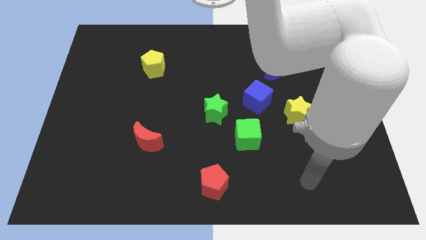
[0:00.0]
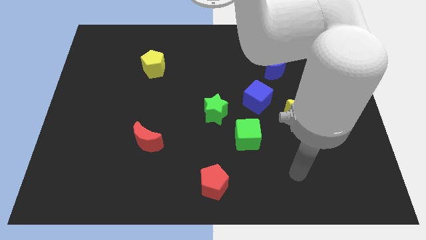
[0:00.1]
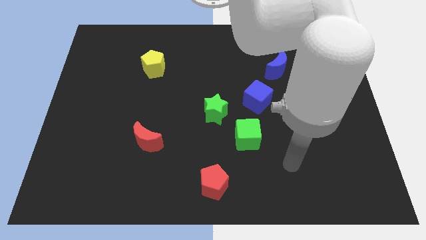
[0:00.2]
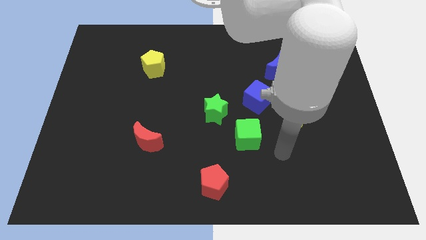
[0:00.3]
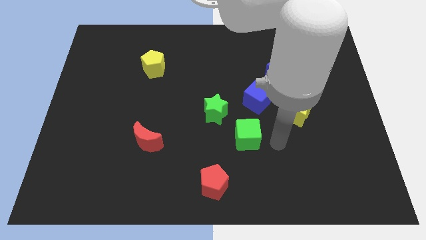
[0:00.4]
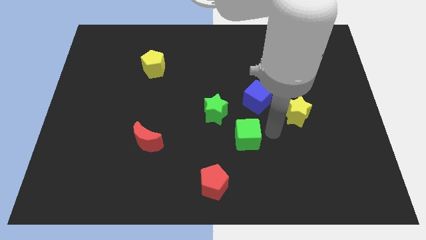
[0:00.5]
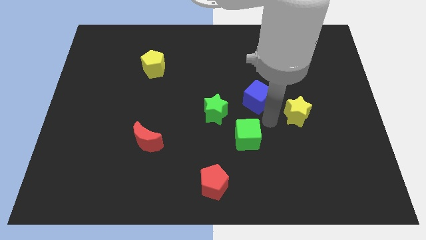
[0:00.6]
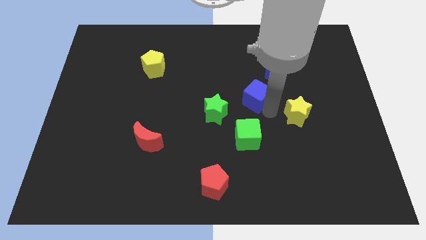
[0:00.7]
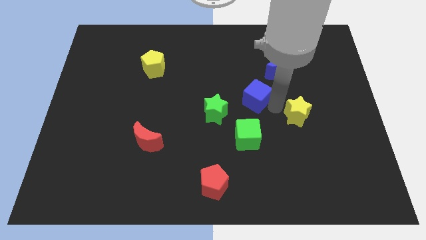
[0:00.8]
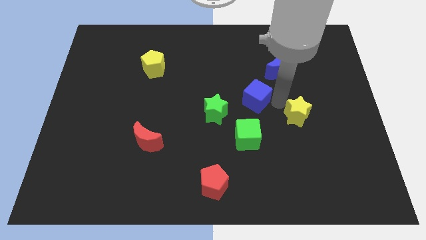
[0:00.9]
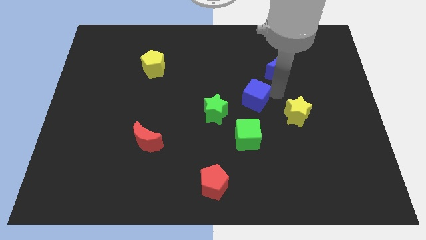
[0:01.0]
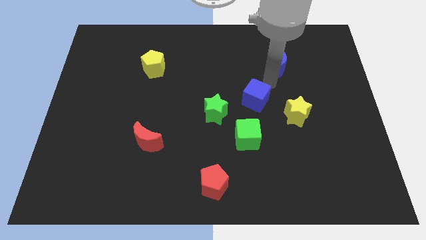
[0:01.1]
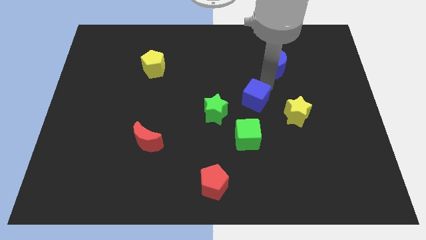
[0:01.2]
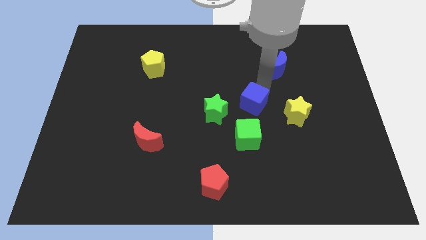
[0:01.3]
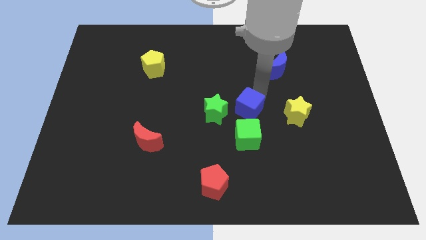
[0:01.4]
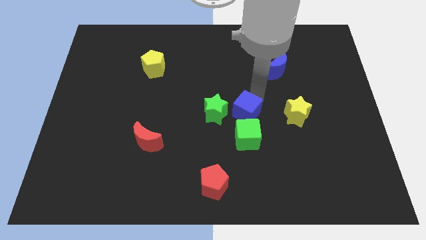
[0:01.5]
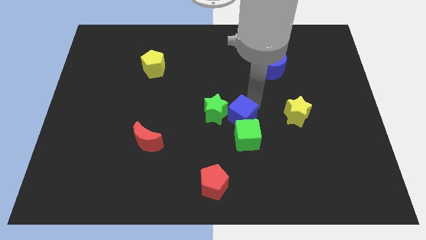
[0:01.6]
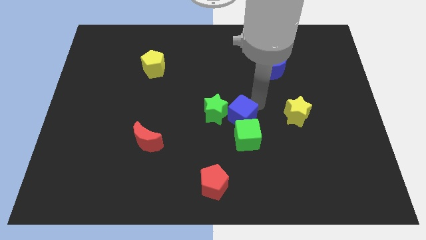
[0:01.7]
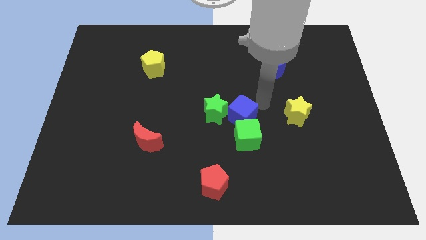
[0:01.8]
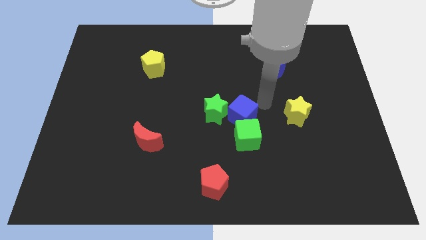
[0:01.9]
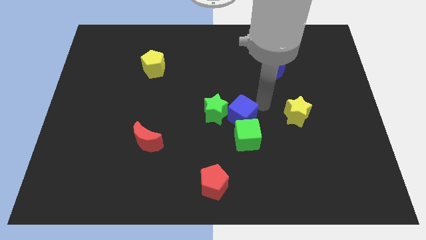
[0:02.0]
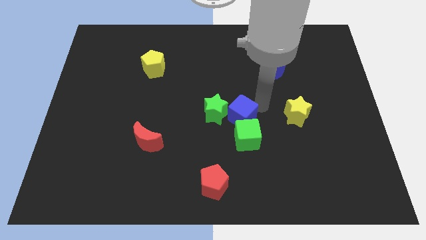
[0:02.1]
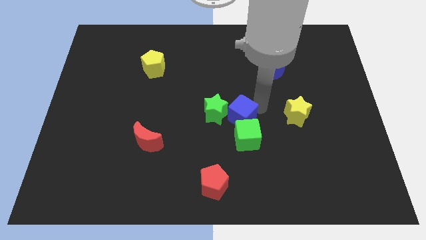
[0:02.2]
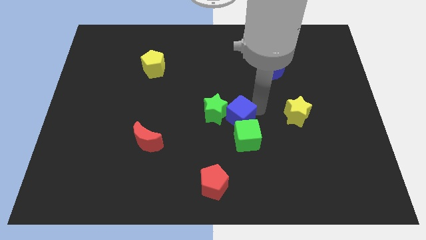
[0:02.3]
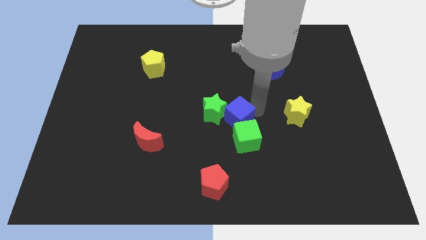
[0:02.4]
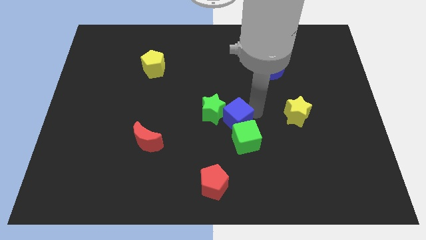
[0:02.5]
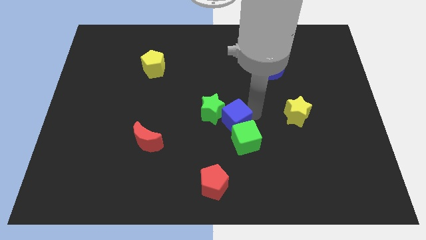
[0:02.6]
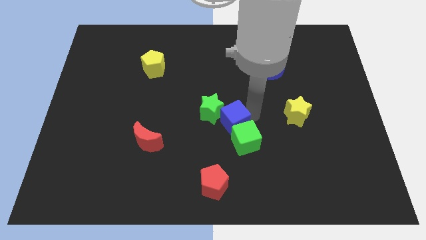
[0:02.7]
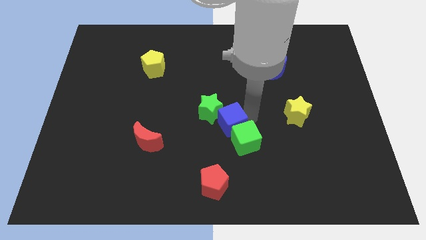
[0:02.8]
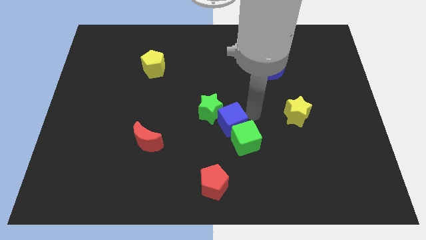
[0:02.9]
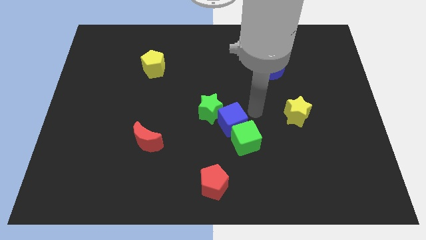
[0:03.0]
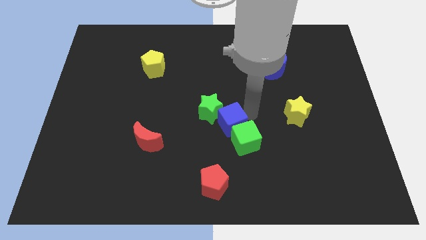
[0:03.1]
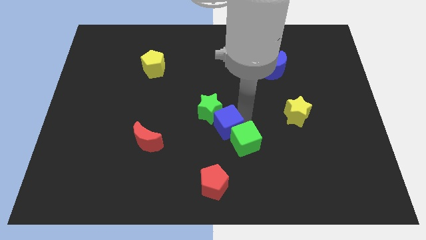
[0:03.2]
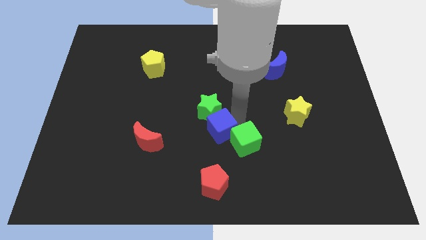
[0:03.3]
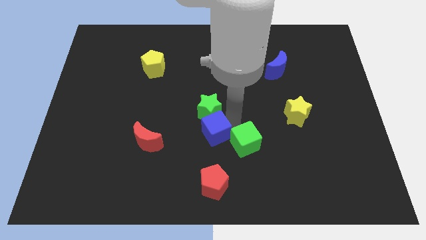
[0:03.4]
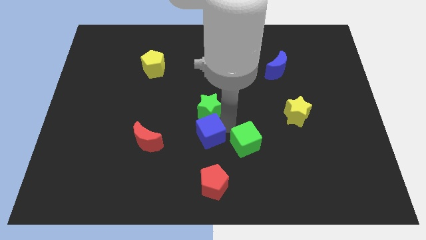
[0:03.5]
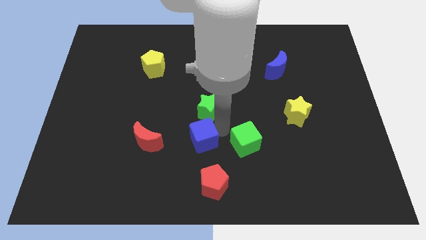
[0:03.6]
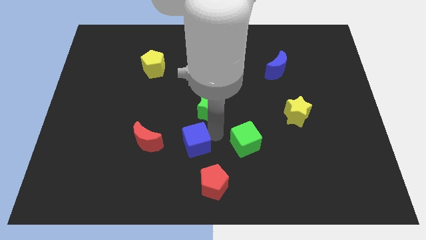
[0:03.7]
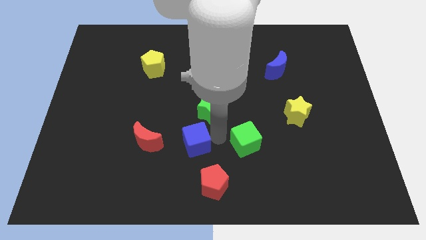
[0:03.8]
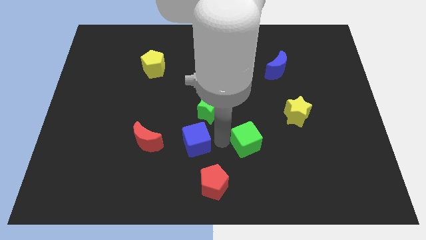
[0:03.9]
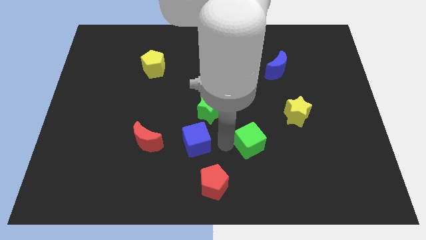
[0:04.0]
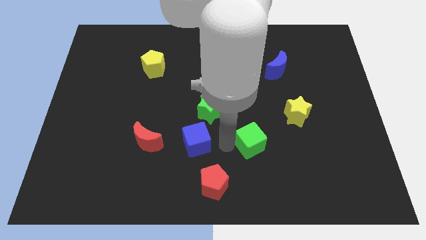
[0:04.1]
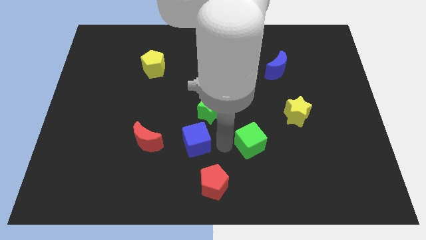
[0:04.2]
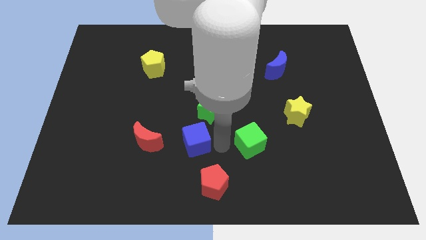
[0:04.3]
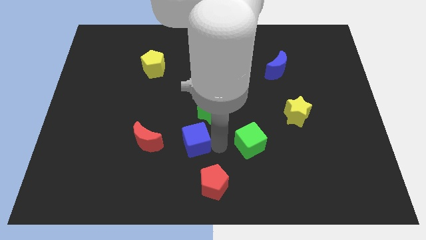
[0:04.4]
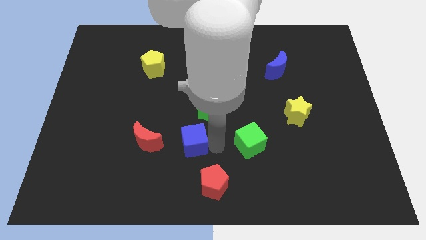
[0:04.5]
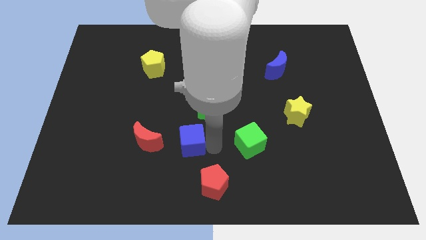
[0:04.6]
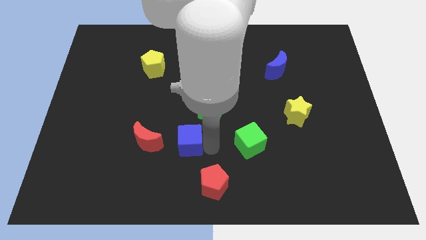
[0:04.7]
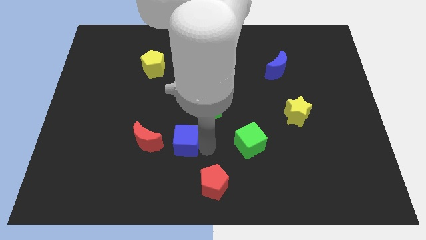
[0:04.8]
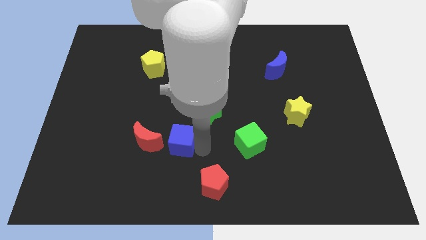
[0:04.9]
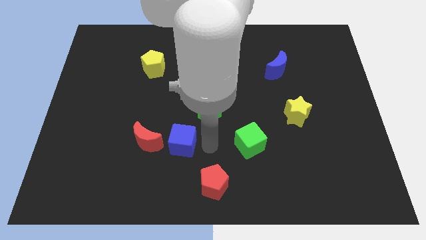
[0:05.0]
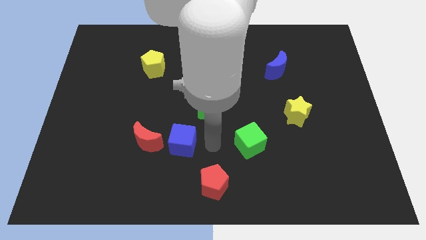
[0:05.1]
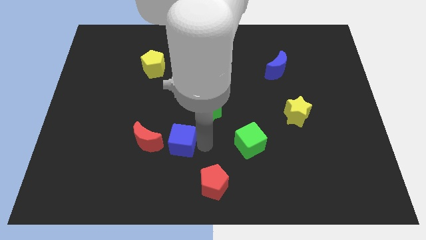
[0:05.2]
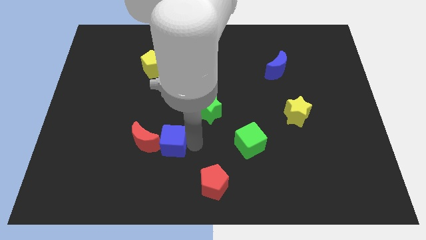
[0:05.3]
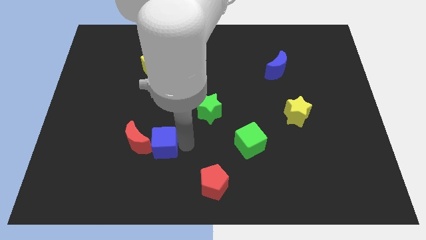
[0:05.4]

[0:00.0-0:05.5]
move the blue cube to the red moon

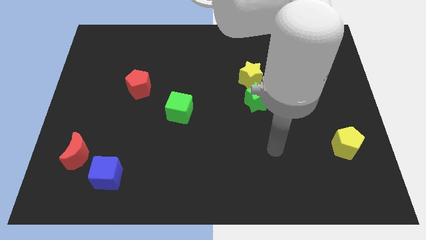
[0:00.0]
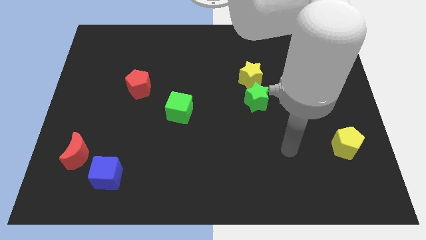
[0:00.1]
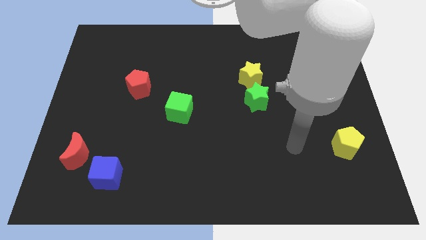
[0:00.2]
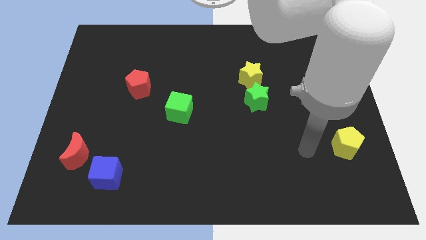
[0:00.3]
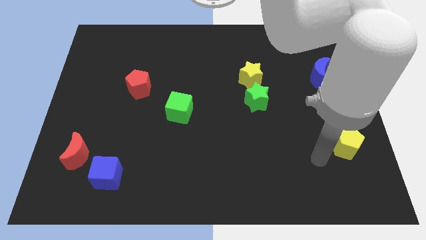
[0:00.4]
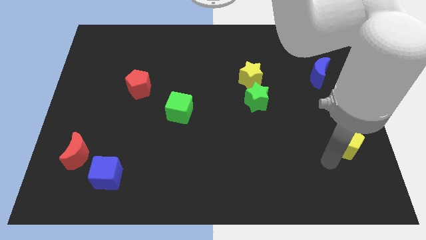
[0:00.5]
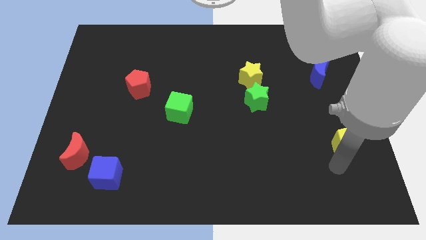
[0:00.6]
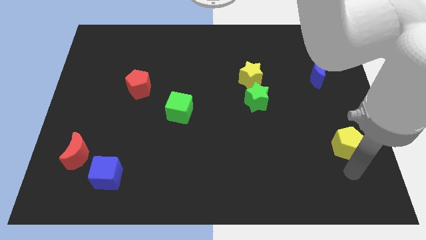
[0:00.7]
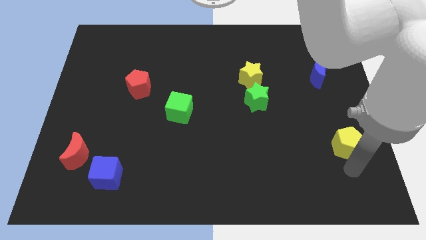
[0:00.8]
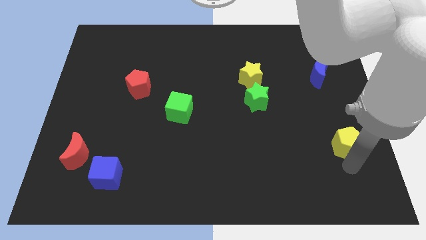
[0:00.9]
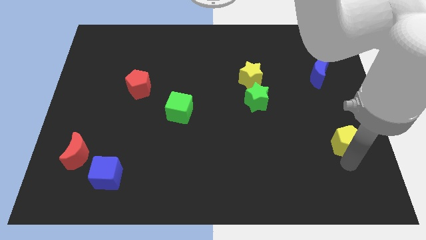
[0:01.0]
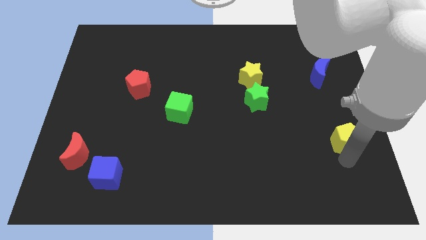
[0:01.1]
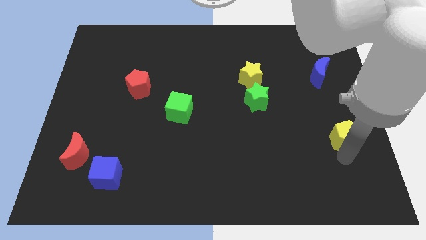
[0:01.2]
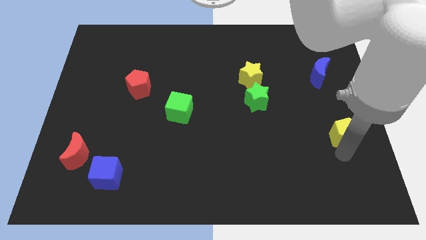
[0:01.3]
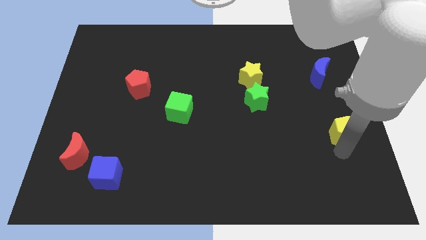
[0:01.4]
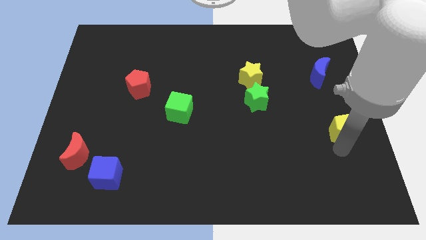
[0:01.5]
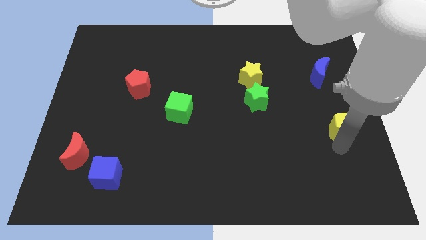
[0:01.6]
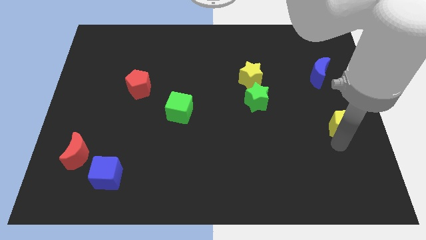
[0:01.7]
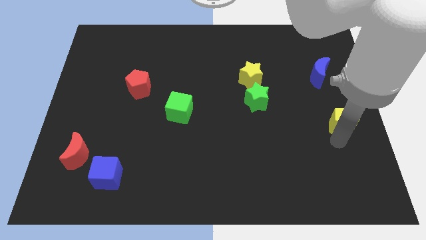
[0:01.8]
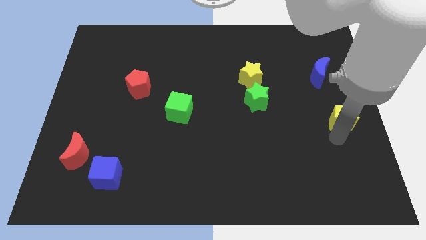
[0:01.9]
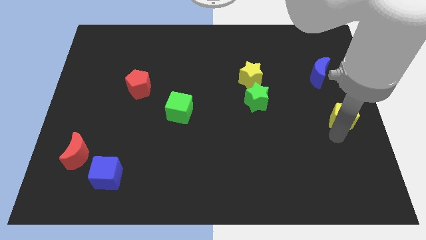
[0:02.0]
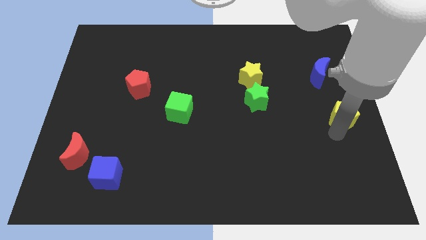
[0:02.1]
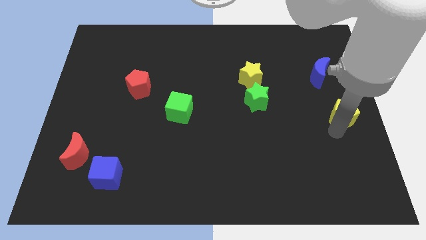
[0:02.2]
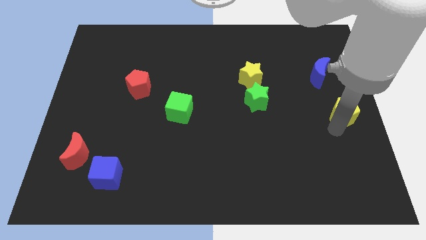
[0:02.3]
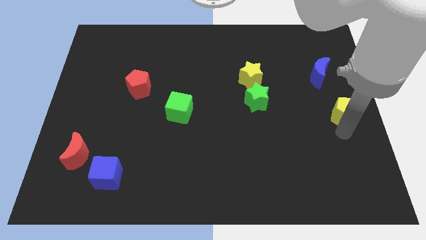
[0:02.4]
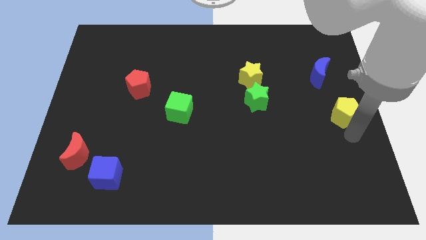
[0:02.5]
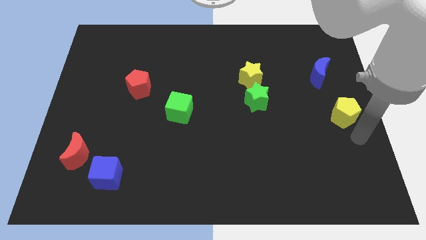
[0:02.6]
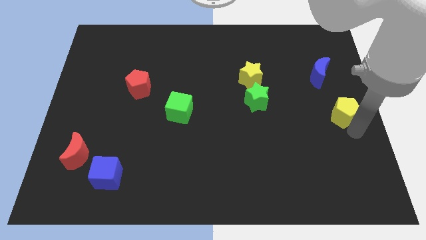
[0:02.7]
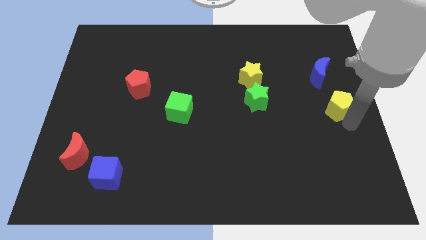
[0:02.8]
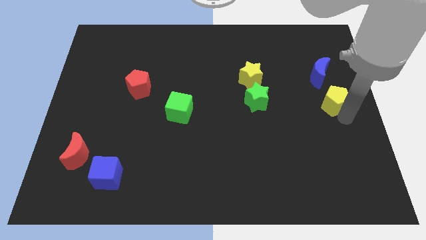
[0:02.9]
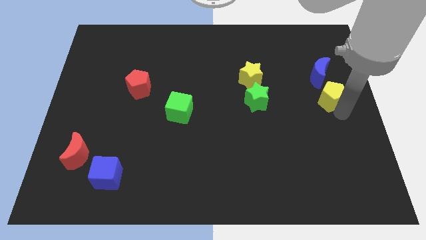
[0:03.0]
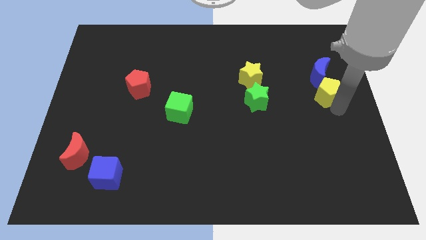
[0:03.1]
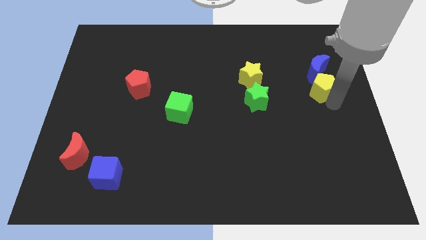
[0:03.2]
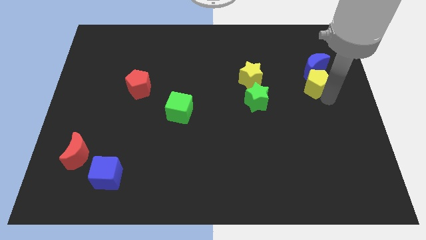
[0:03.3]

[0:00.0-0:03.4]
move the yellow pentagon close to the blue moon
